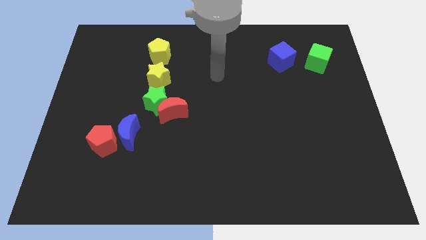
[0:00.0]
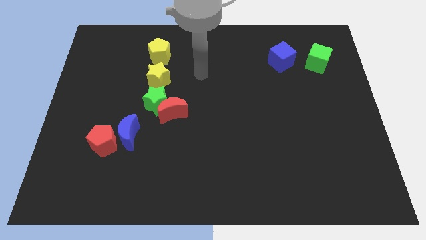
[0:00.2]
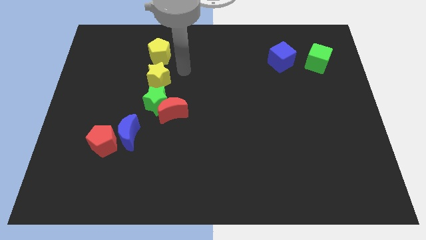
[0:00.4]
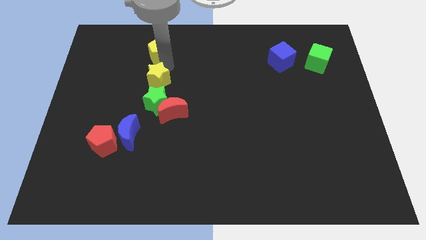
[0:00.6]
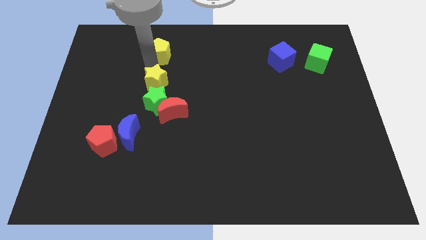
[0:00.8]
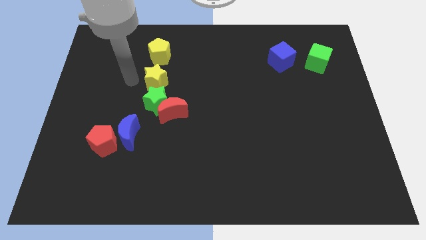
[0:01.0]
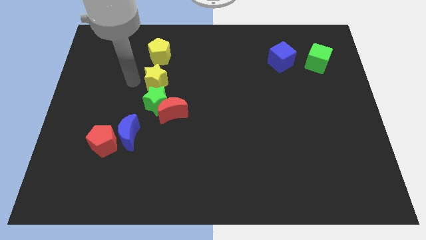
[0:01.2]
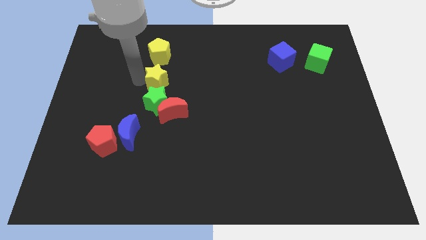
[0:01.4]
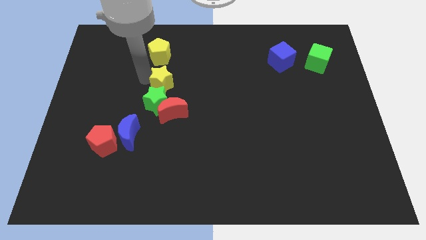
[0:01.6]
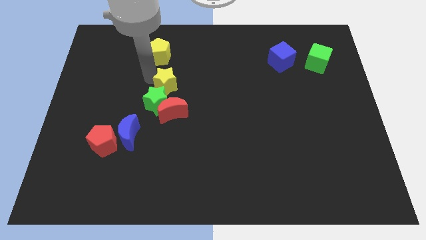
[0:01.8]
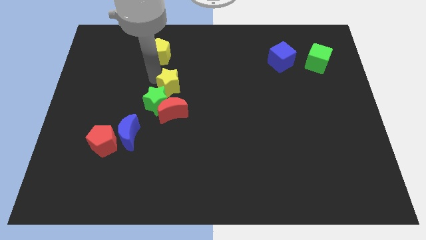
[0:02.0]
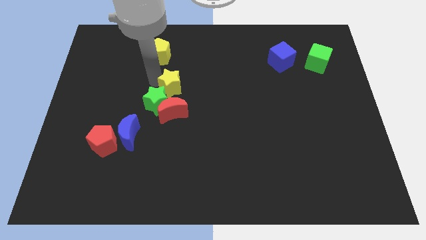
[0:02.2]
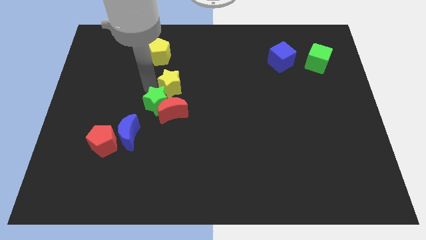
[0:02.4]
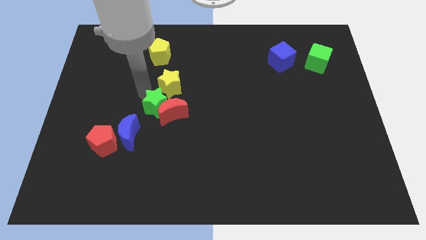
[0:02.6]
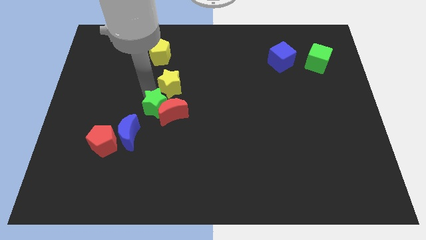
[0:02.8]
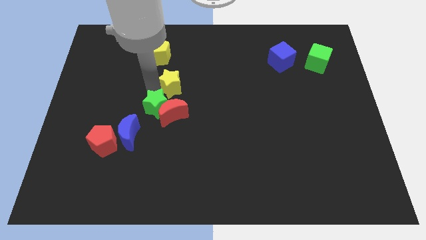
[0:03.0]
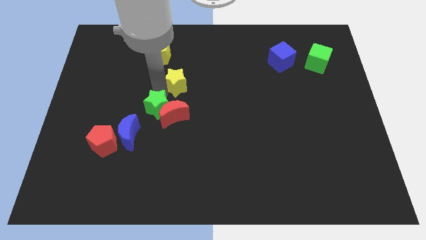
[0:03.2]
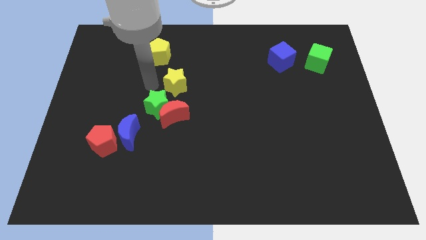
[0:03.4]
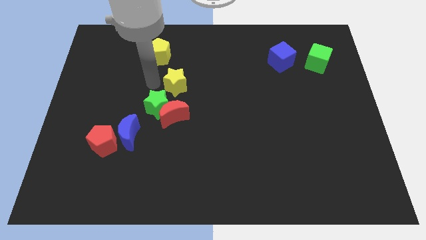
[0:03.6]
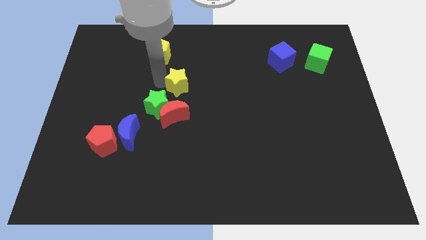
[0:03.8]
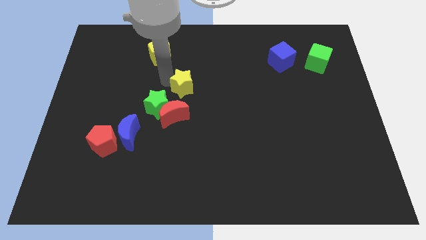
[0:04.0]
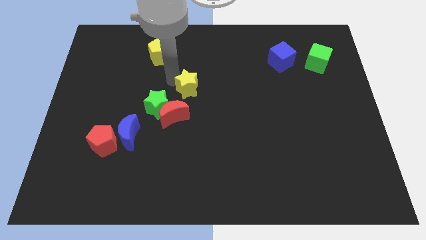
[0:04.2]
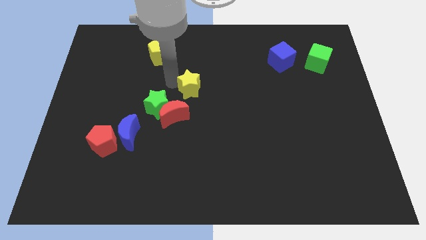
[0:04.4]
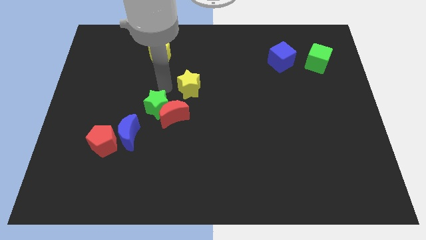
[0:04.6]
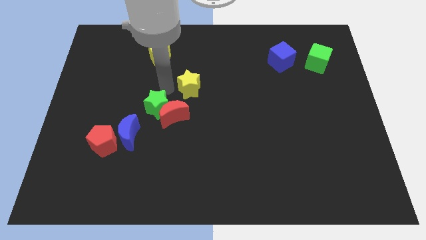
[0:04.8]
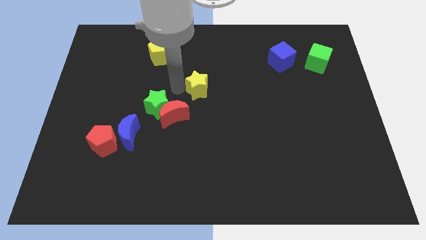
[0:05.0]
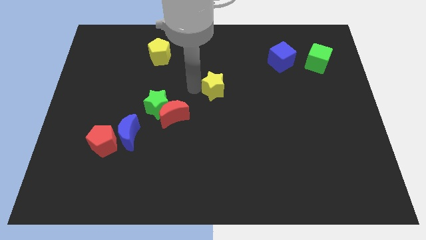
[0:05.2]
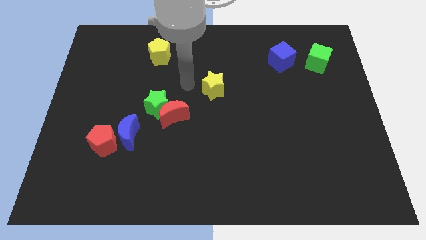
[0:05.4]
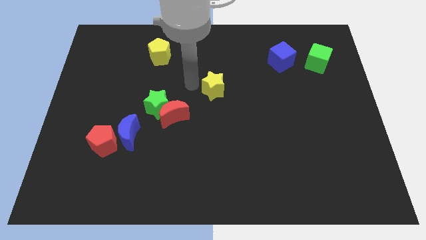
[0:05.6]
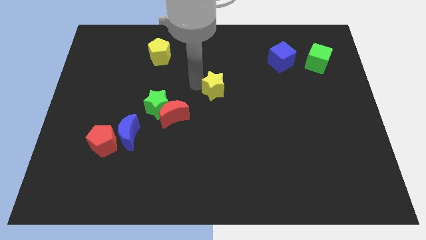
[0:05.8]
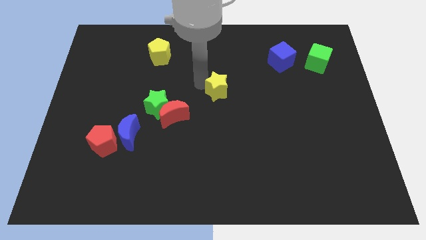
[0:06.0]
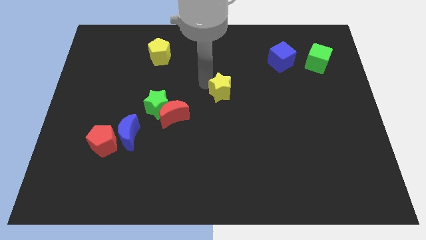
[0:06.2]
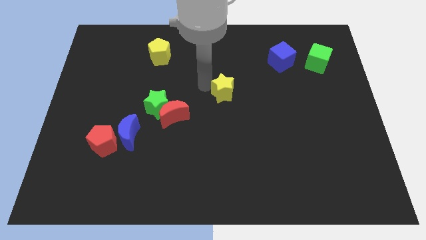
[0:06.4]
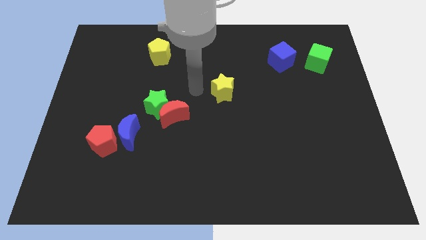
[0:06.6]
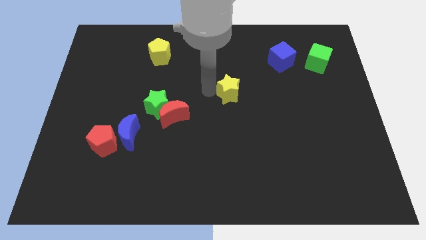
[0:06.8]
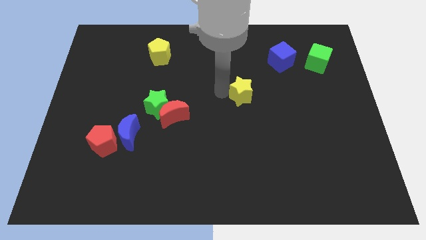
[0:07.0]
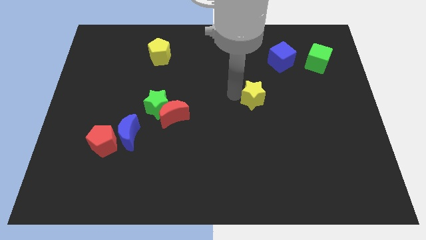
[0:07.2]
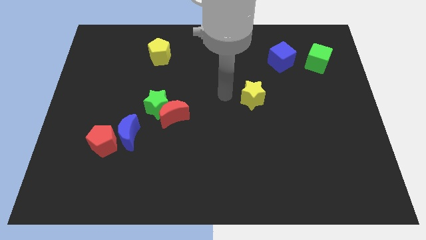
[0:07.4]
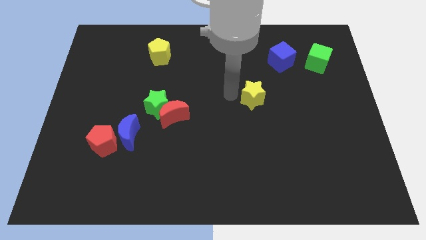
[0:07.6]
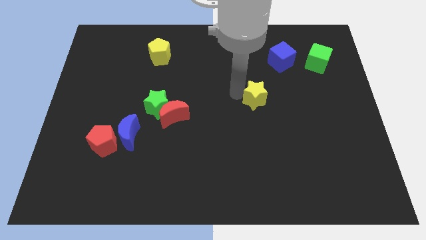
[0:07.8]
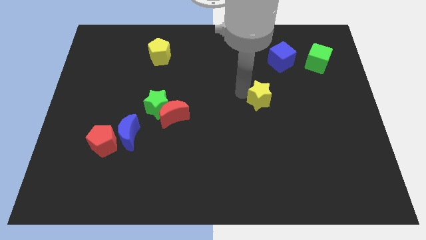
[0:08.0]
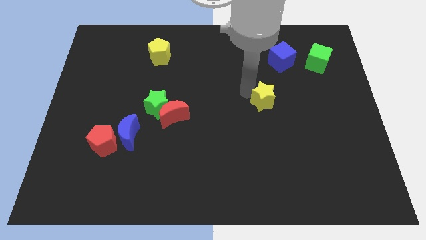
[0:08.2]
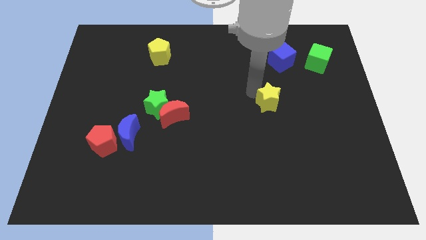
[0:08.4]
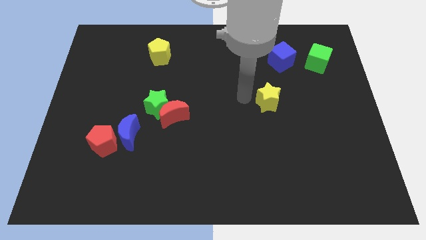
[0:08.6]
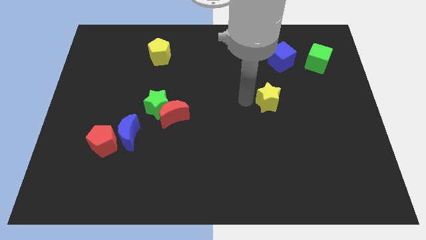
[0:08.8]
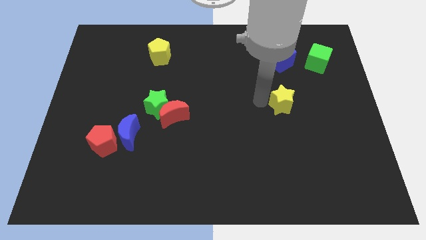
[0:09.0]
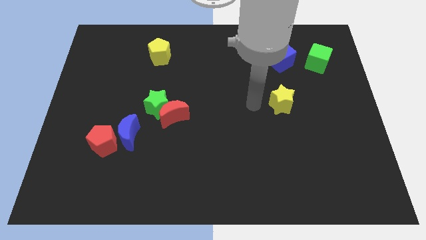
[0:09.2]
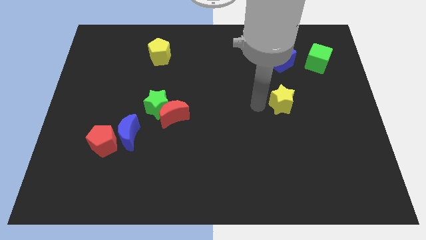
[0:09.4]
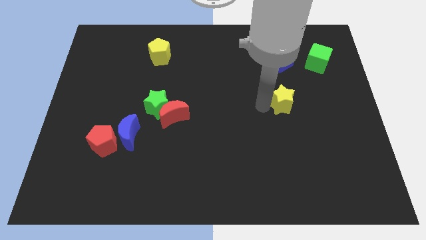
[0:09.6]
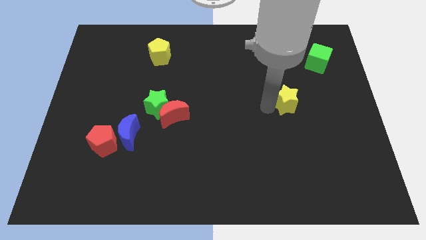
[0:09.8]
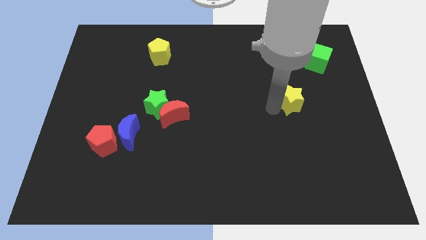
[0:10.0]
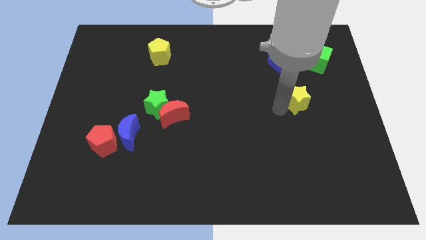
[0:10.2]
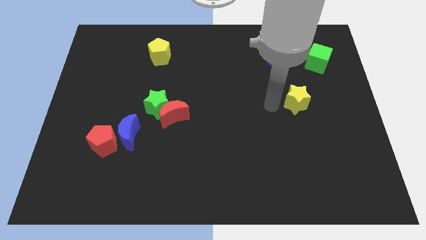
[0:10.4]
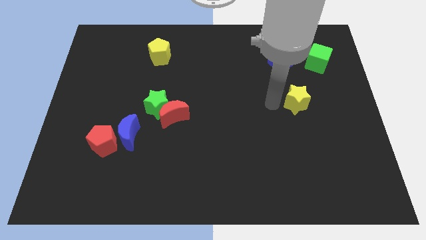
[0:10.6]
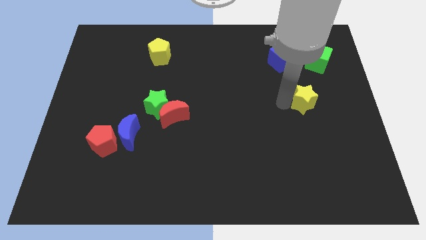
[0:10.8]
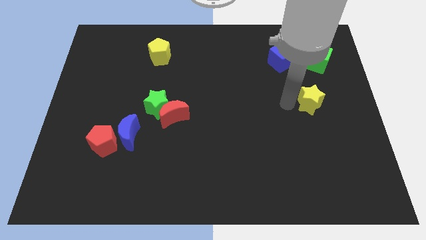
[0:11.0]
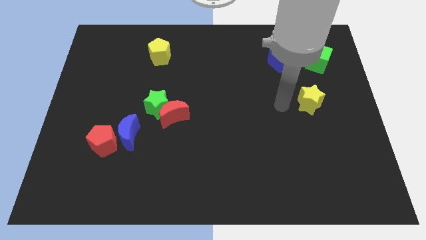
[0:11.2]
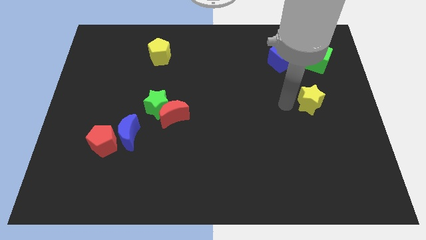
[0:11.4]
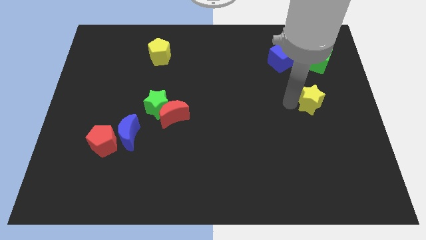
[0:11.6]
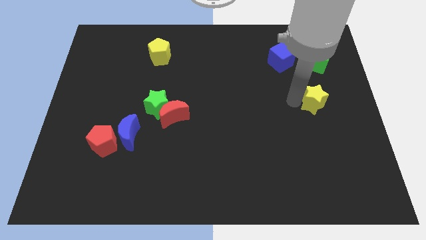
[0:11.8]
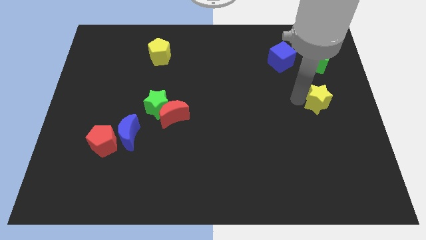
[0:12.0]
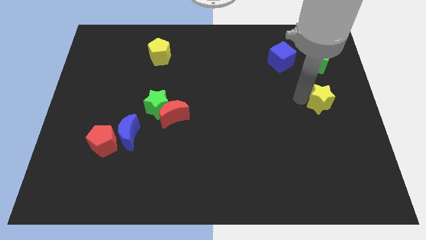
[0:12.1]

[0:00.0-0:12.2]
push the yellow star to the right side

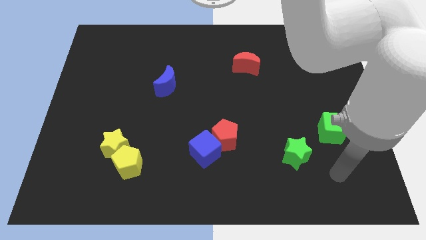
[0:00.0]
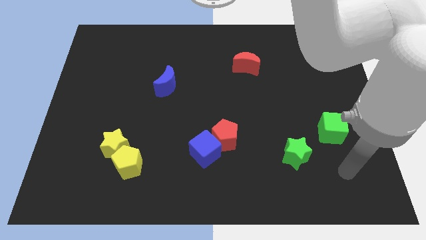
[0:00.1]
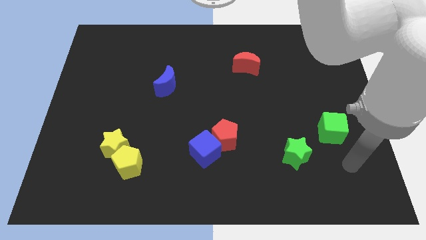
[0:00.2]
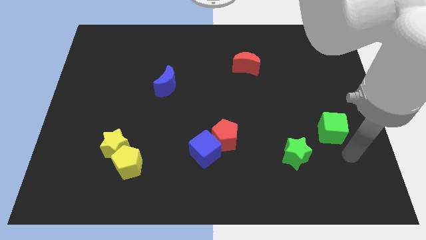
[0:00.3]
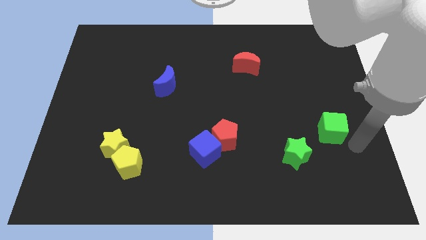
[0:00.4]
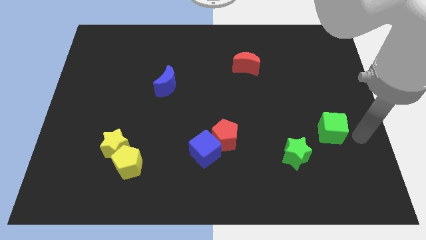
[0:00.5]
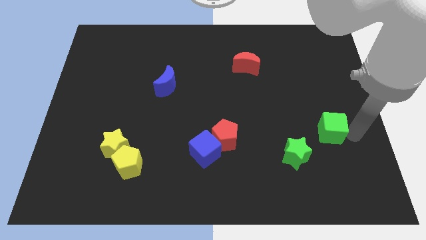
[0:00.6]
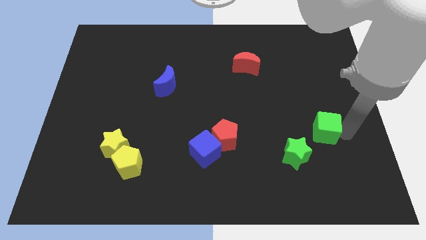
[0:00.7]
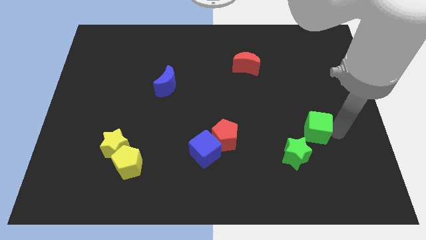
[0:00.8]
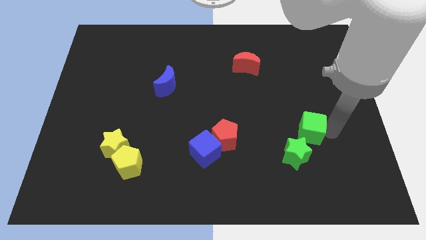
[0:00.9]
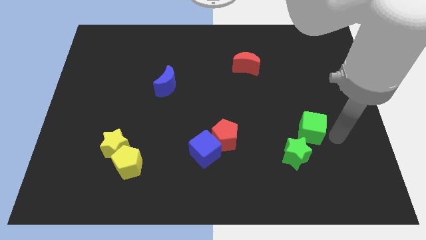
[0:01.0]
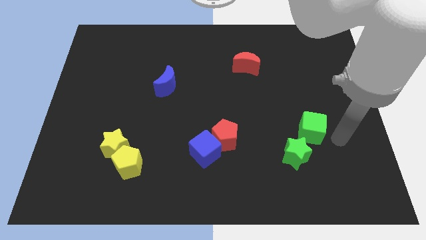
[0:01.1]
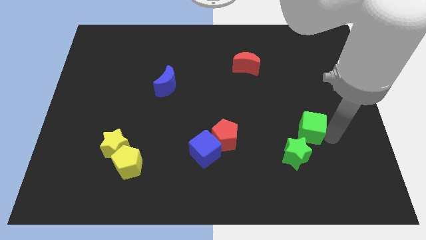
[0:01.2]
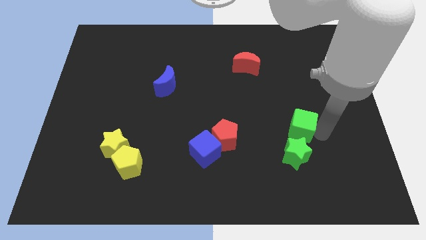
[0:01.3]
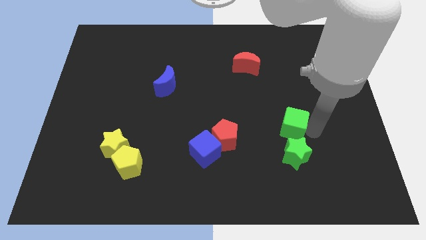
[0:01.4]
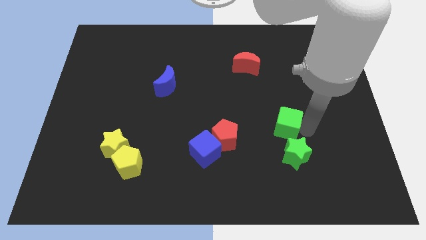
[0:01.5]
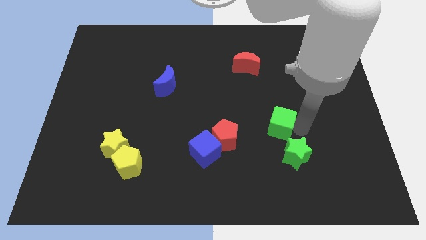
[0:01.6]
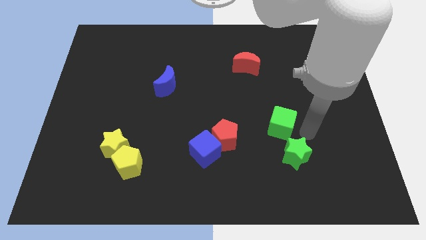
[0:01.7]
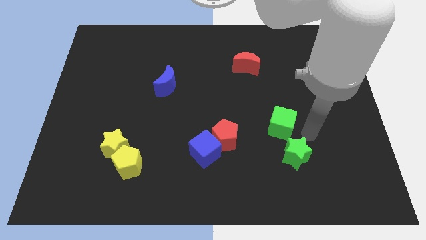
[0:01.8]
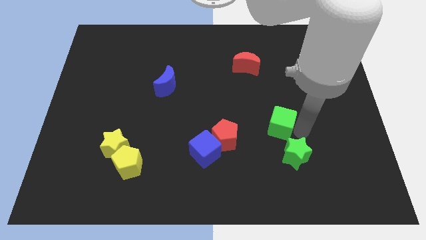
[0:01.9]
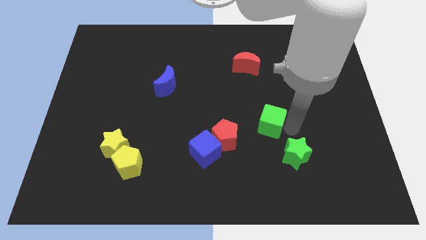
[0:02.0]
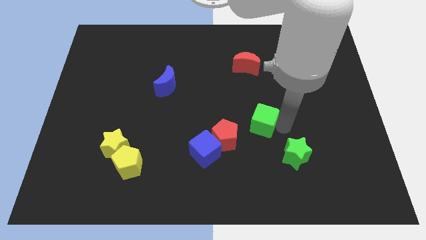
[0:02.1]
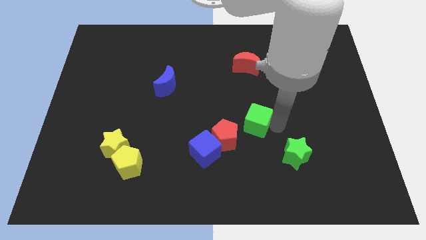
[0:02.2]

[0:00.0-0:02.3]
slide the green cube to the center of the board
